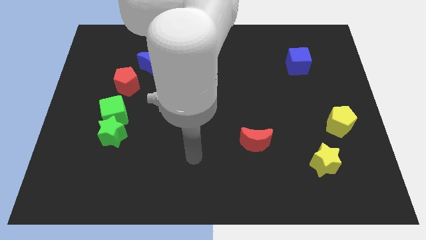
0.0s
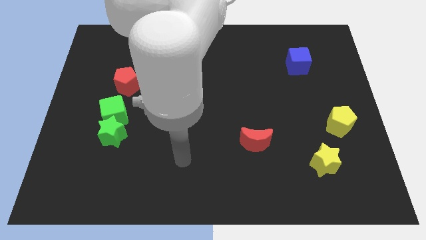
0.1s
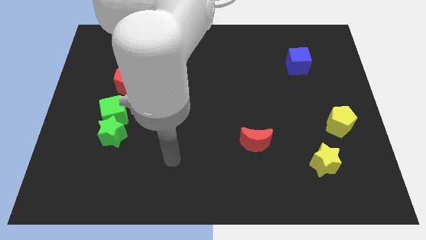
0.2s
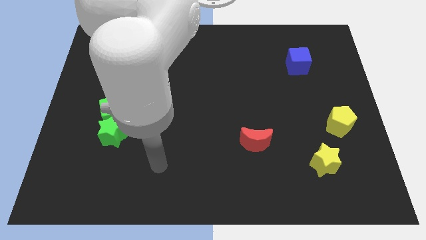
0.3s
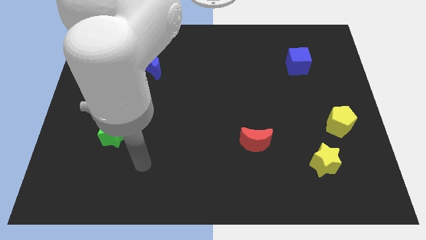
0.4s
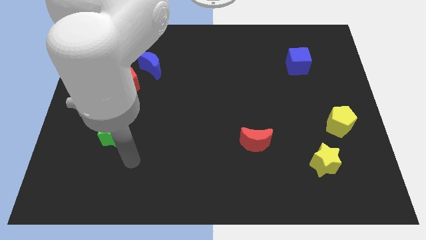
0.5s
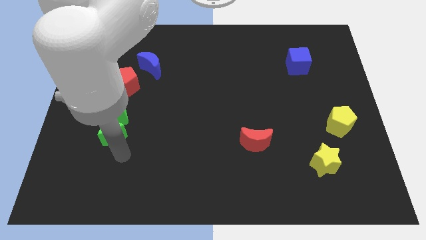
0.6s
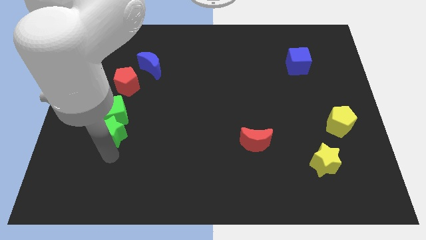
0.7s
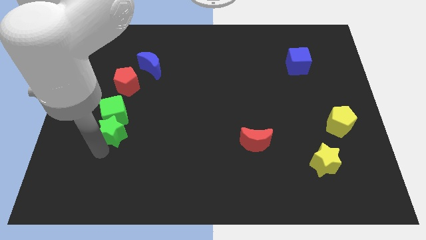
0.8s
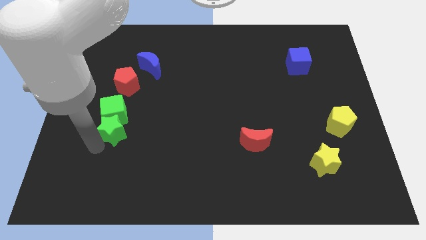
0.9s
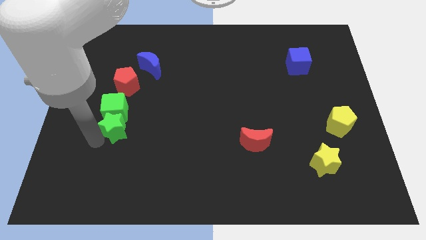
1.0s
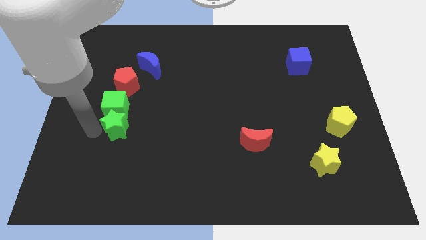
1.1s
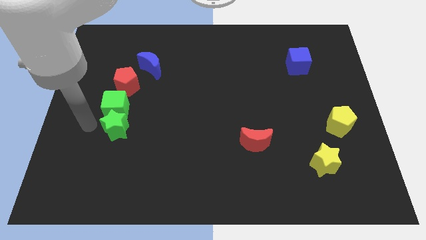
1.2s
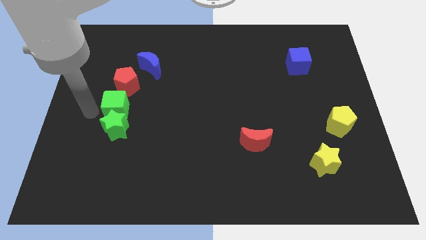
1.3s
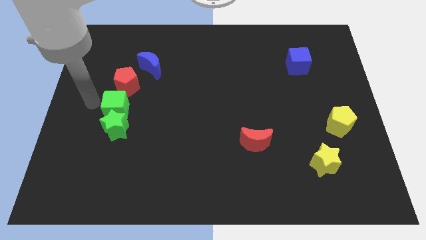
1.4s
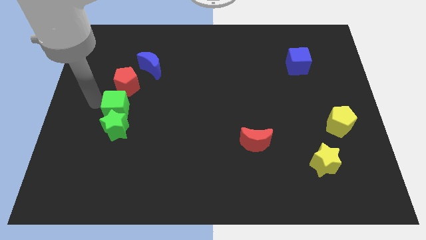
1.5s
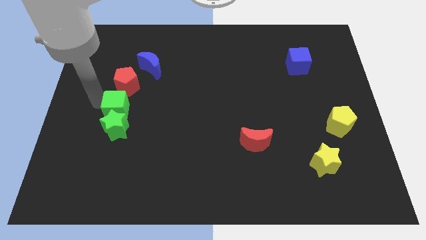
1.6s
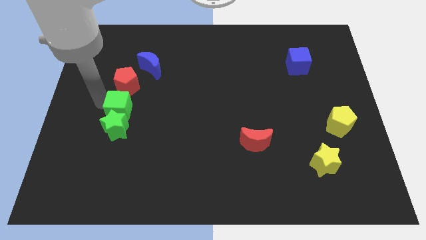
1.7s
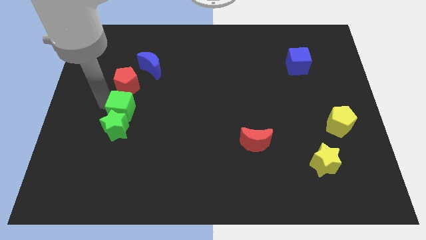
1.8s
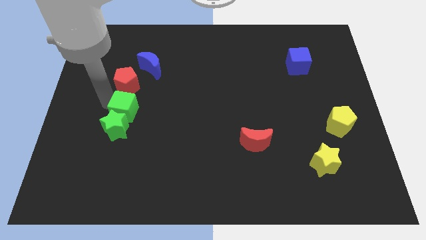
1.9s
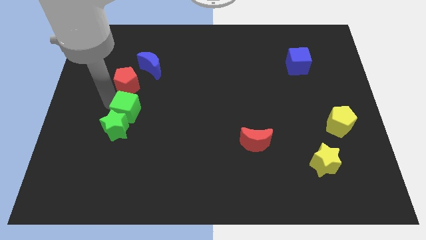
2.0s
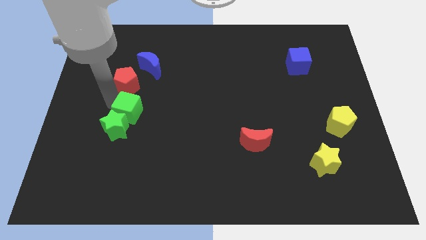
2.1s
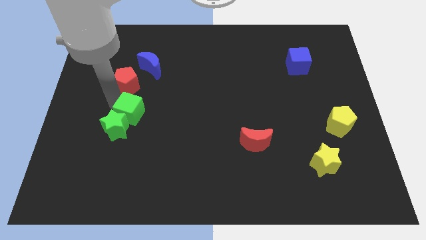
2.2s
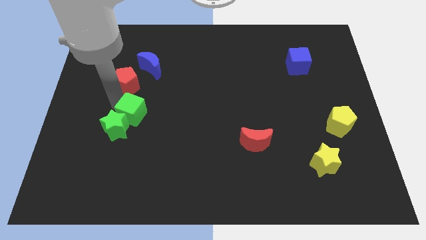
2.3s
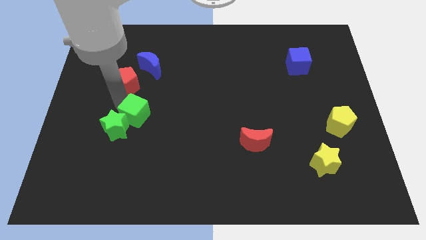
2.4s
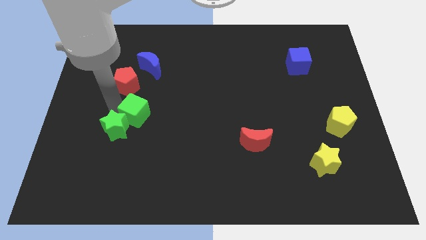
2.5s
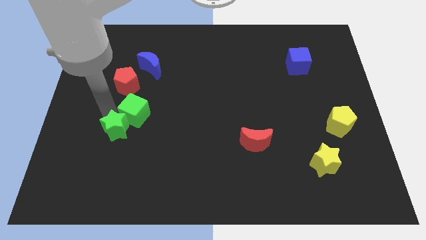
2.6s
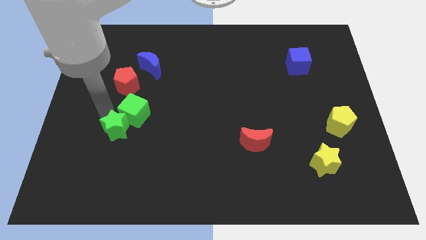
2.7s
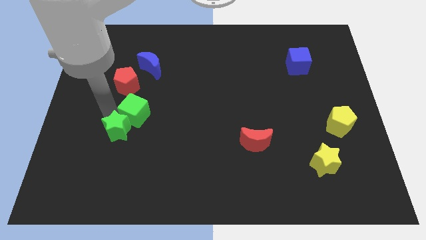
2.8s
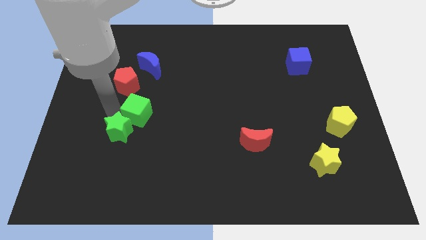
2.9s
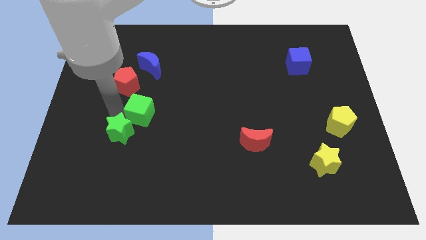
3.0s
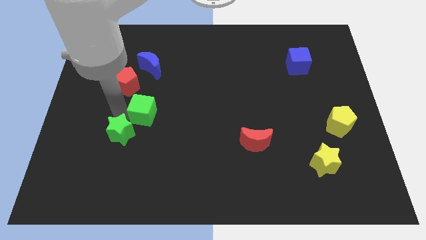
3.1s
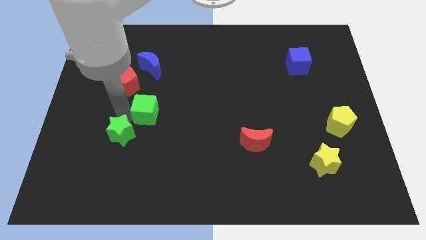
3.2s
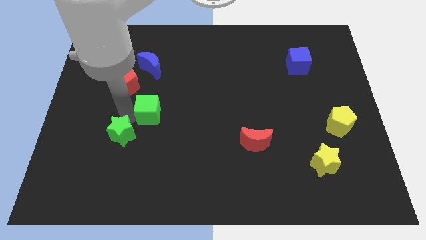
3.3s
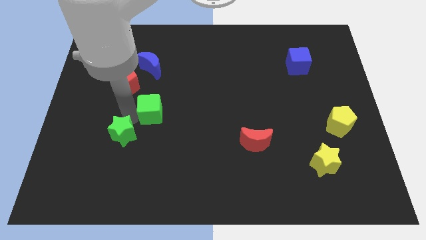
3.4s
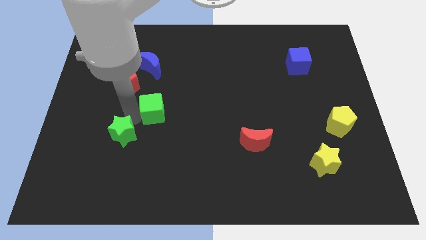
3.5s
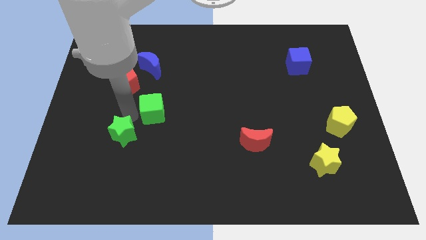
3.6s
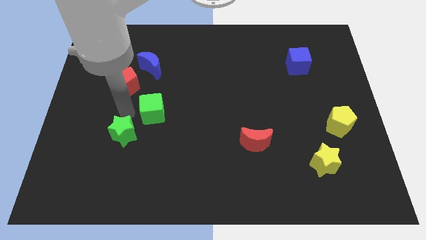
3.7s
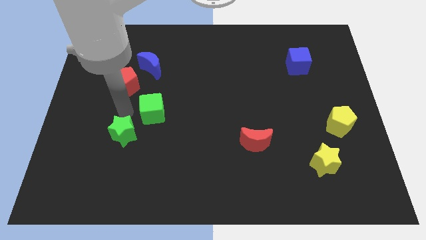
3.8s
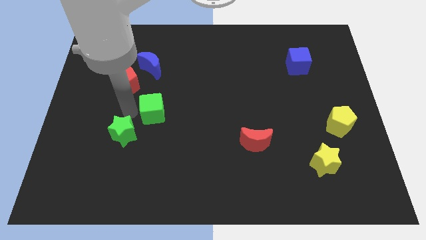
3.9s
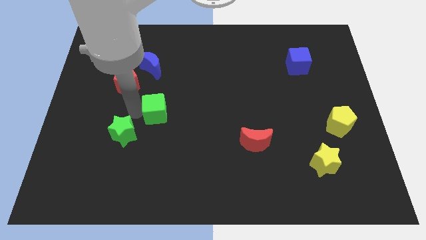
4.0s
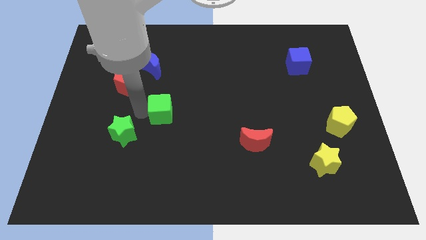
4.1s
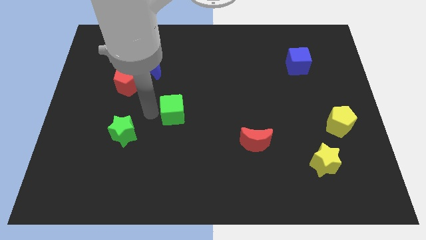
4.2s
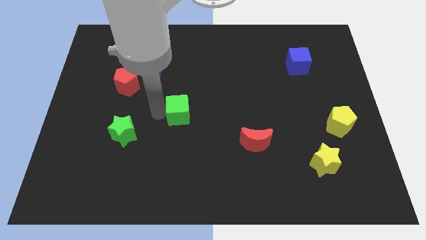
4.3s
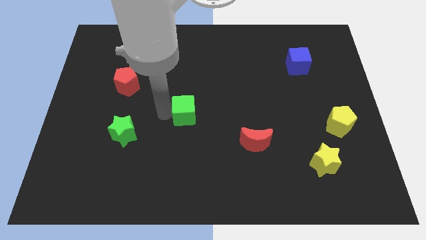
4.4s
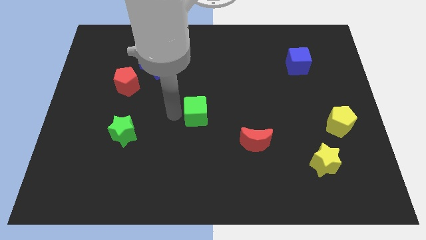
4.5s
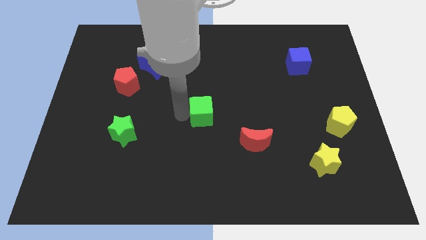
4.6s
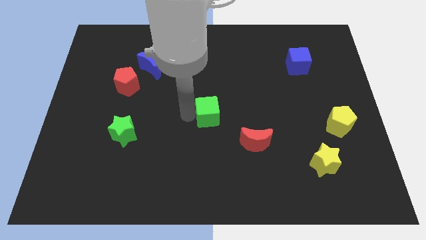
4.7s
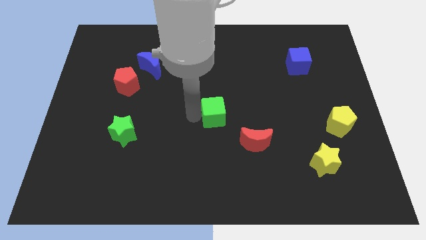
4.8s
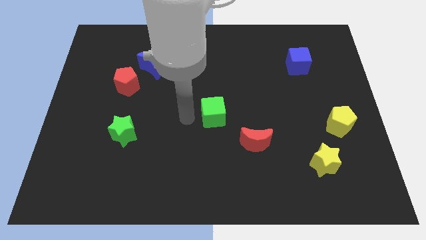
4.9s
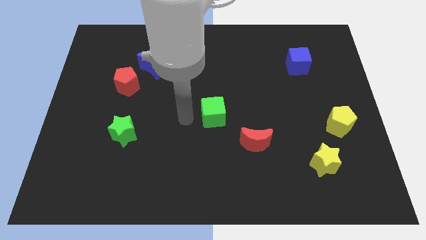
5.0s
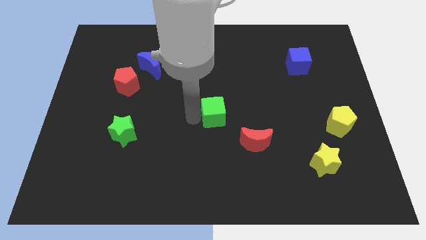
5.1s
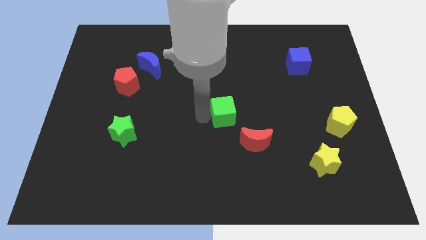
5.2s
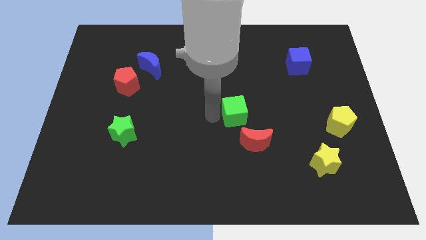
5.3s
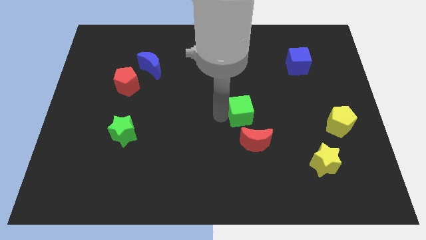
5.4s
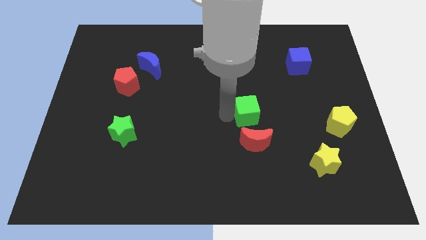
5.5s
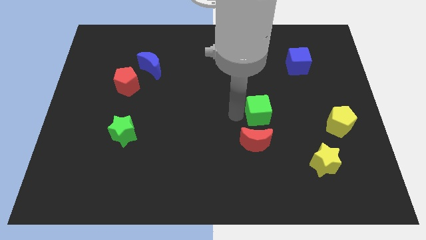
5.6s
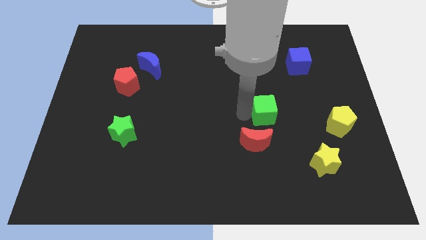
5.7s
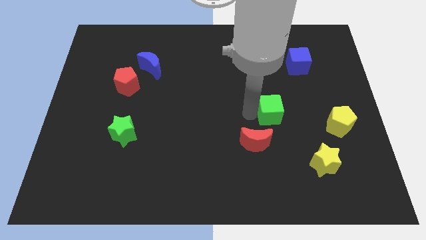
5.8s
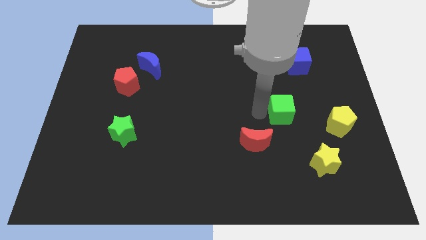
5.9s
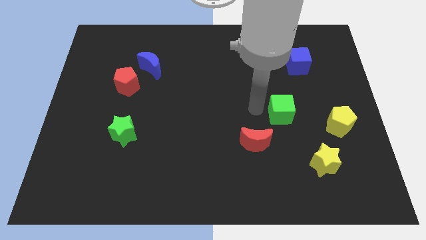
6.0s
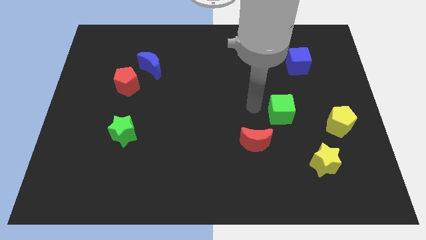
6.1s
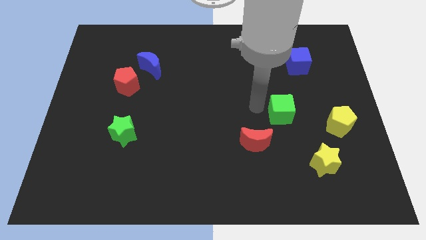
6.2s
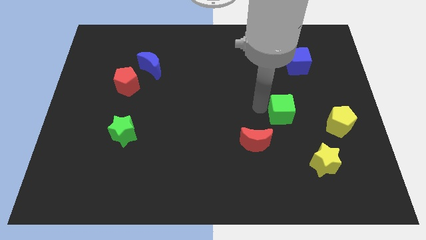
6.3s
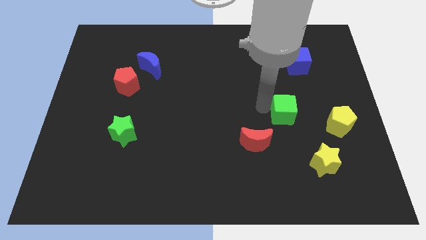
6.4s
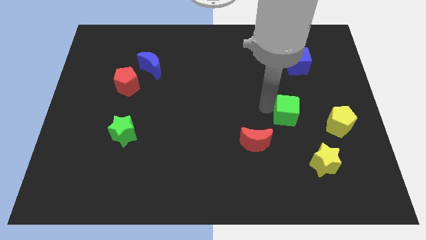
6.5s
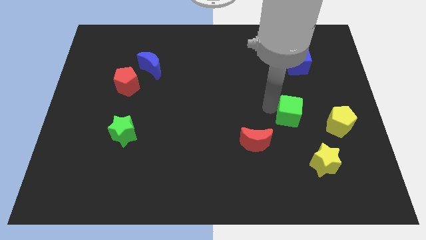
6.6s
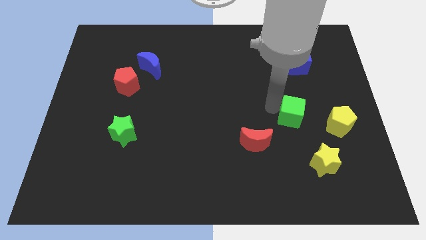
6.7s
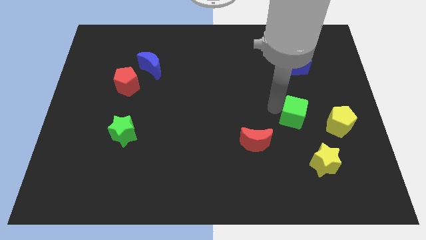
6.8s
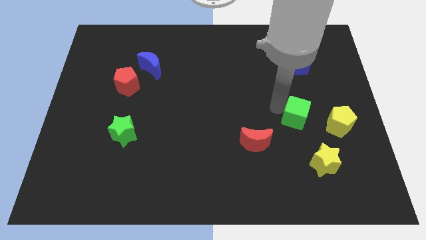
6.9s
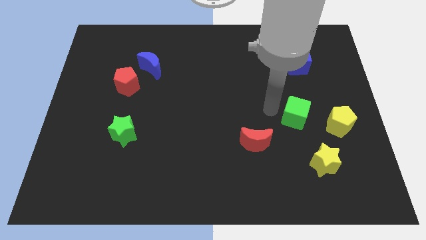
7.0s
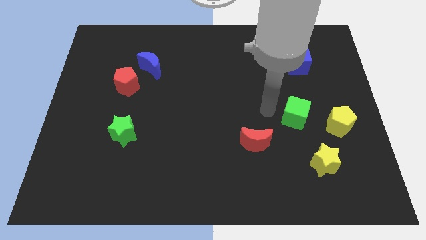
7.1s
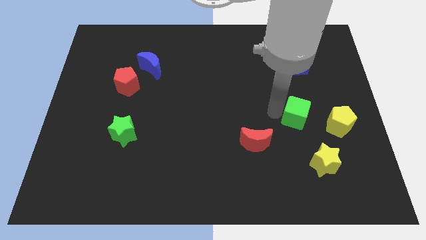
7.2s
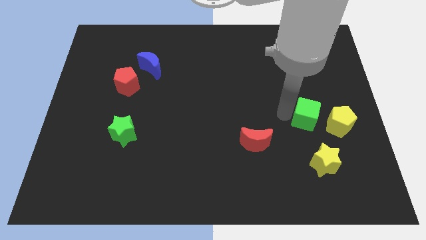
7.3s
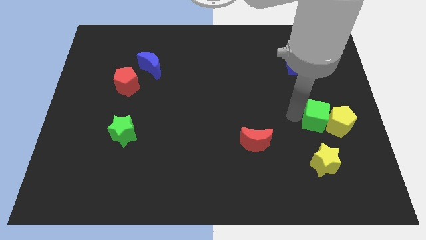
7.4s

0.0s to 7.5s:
put the green cube close to the yellow pentagon

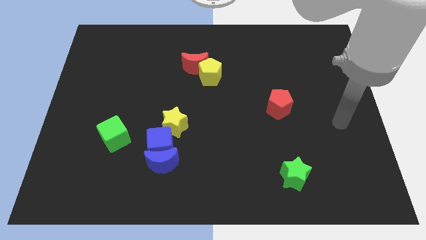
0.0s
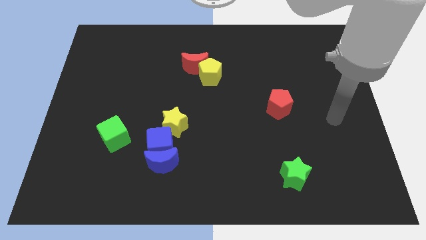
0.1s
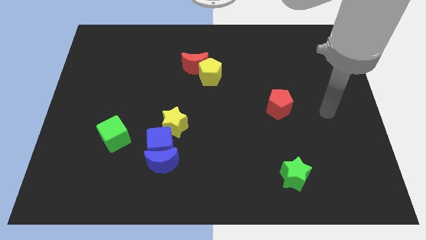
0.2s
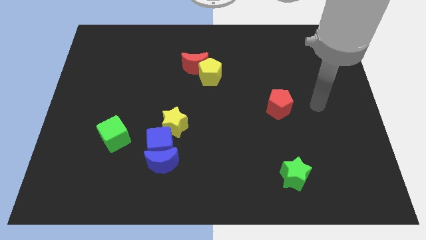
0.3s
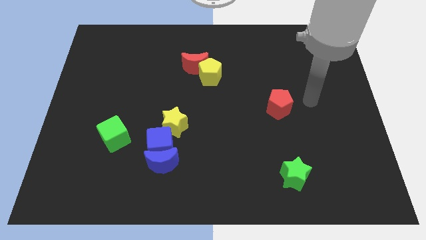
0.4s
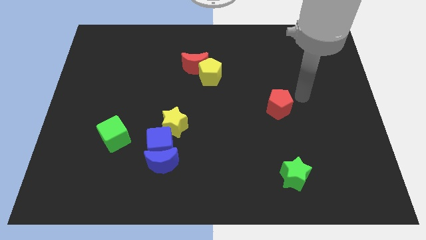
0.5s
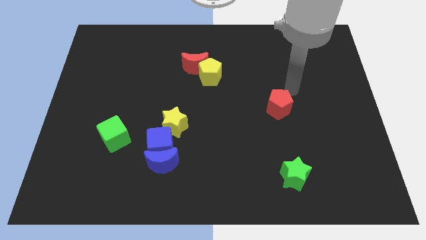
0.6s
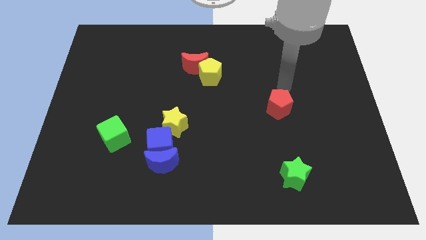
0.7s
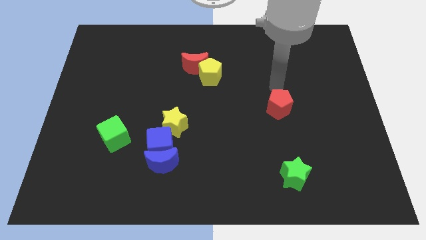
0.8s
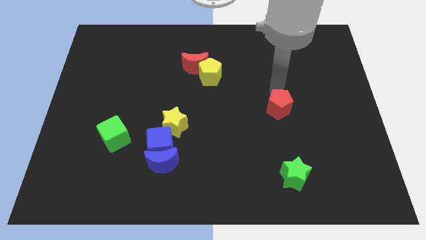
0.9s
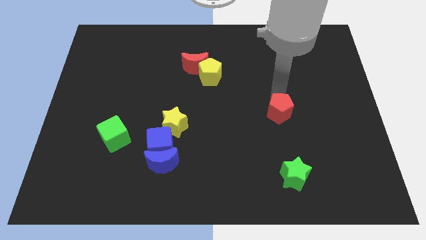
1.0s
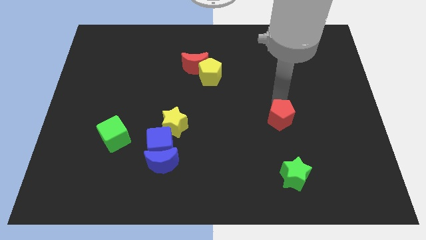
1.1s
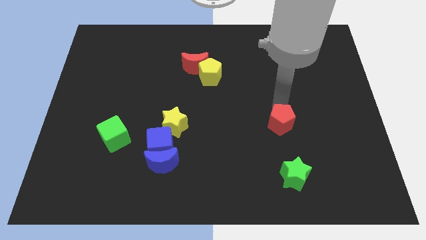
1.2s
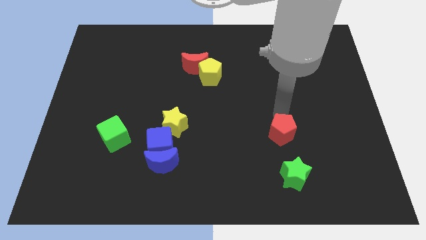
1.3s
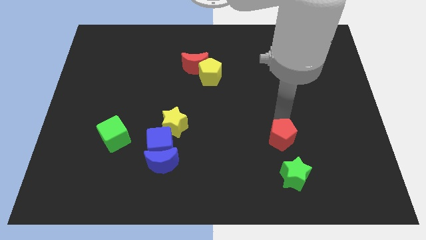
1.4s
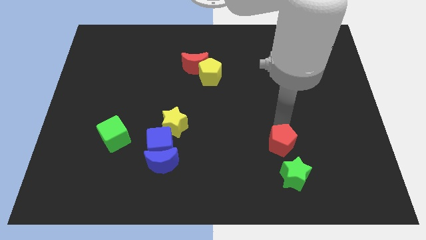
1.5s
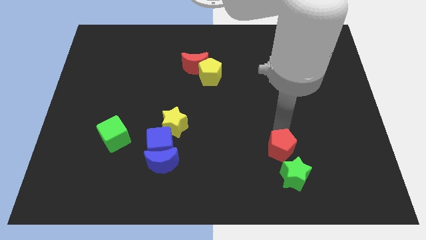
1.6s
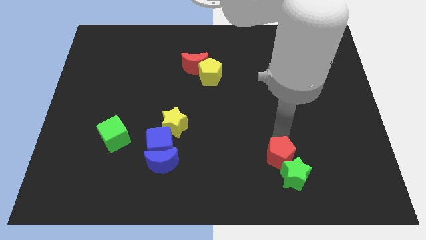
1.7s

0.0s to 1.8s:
slide the red pentagon towards the green star
